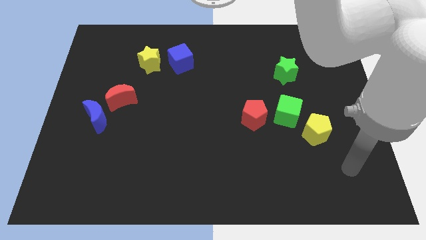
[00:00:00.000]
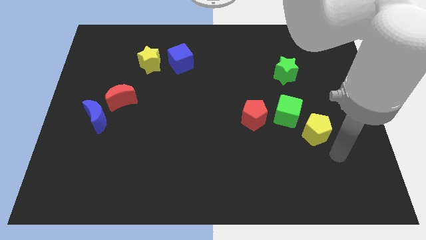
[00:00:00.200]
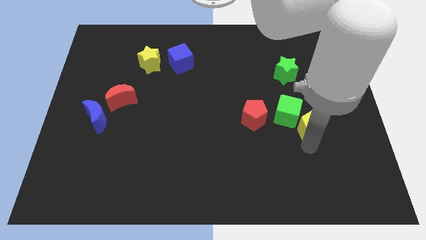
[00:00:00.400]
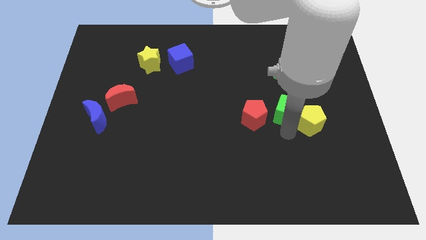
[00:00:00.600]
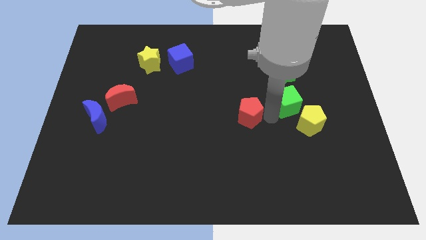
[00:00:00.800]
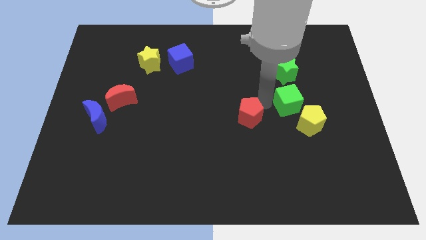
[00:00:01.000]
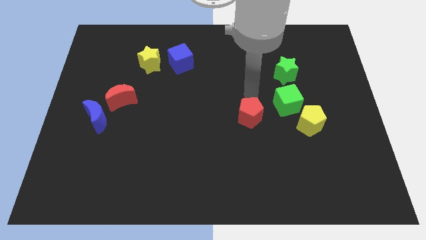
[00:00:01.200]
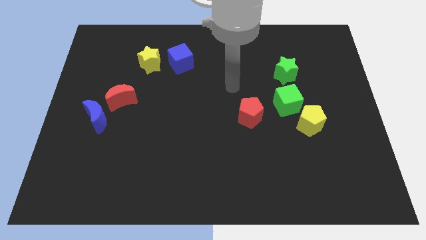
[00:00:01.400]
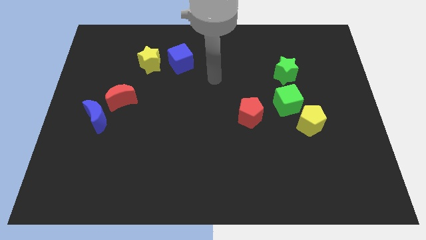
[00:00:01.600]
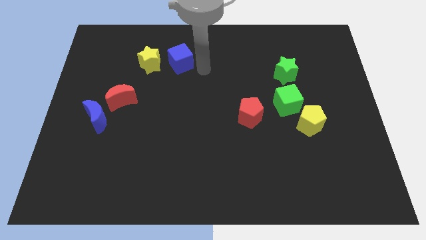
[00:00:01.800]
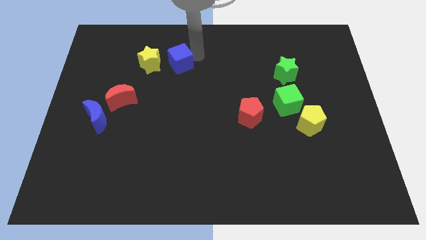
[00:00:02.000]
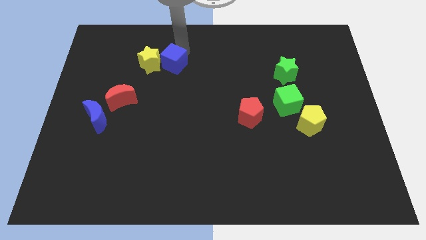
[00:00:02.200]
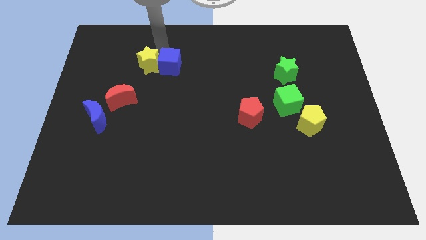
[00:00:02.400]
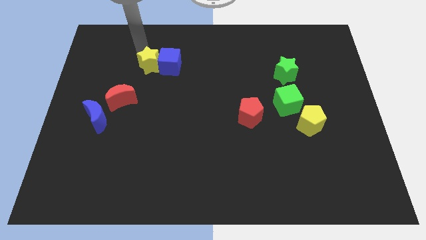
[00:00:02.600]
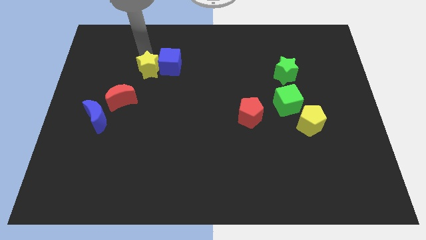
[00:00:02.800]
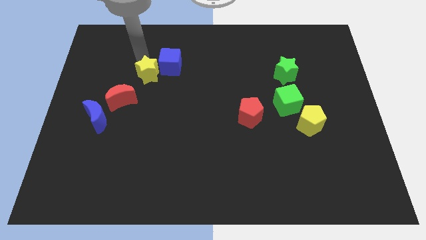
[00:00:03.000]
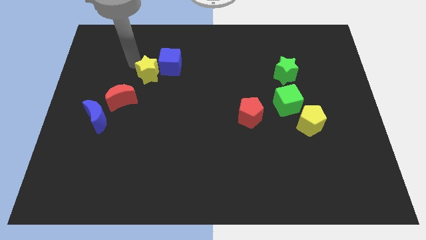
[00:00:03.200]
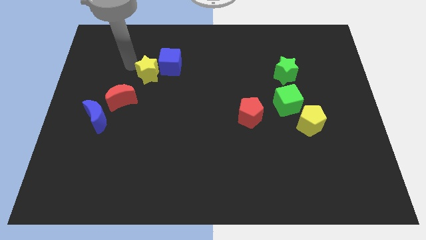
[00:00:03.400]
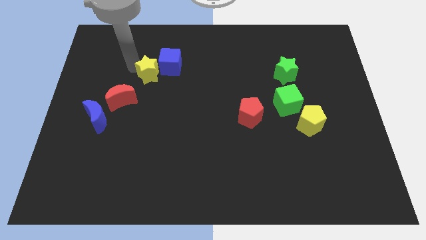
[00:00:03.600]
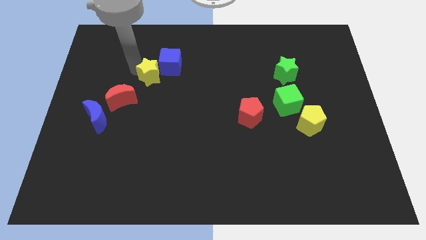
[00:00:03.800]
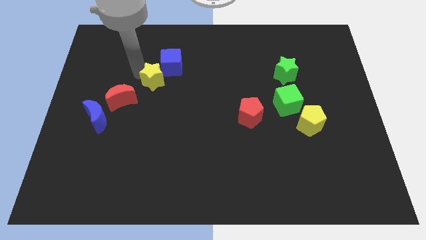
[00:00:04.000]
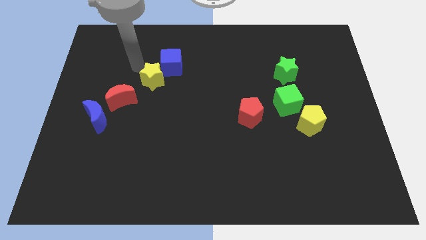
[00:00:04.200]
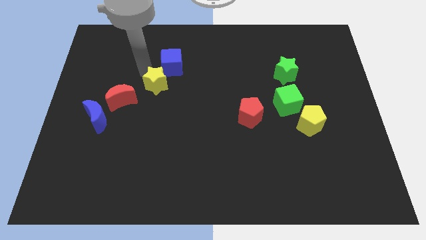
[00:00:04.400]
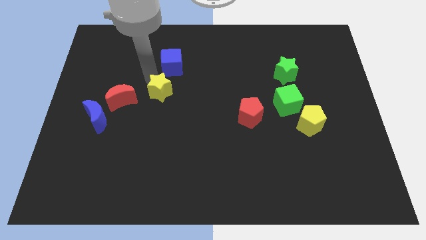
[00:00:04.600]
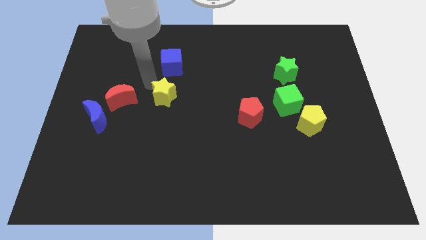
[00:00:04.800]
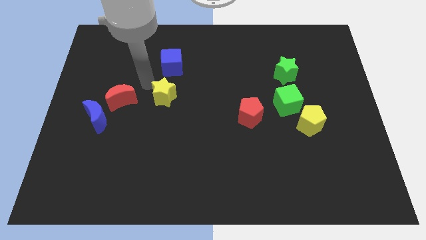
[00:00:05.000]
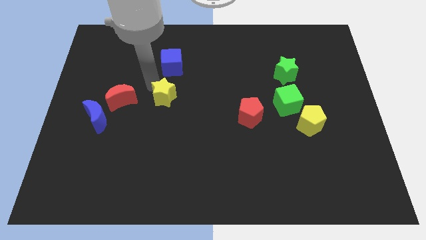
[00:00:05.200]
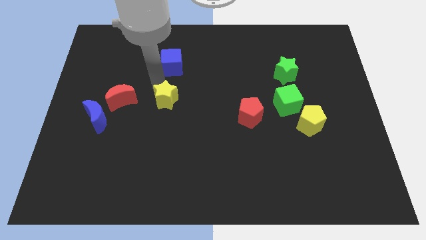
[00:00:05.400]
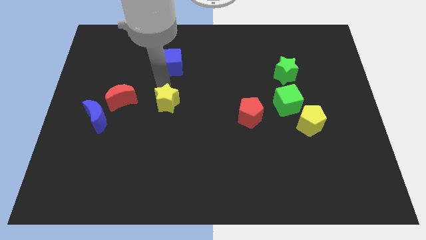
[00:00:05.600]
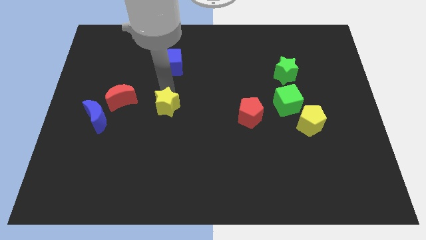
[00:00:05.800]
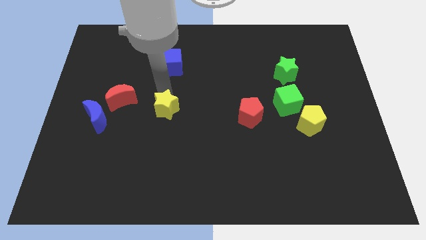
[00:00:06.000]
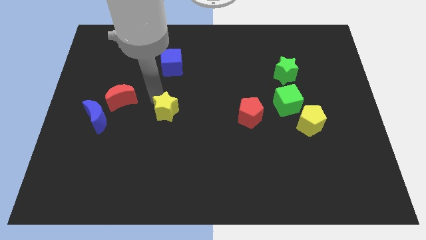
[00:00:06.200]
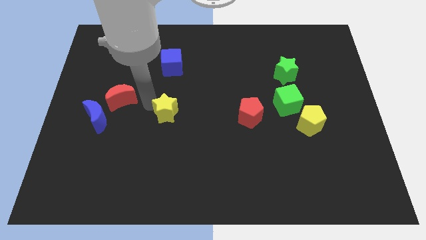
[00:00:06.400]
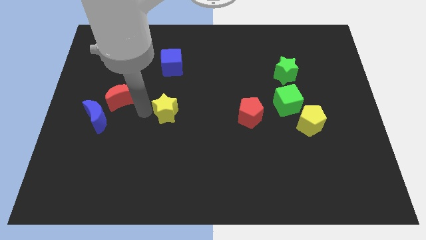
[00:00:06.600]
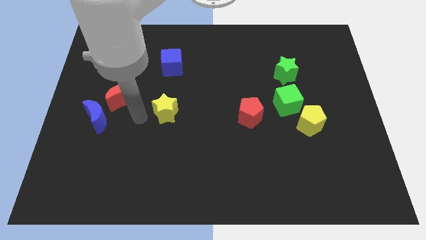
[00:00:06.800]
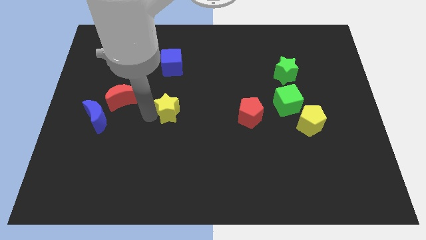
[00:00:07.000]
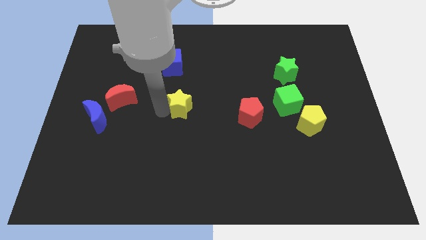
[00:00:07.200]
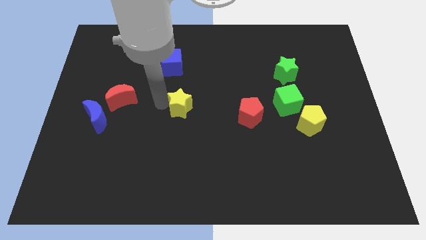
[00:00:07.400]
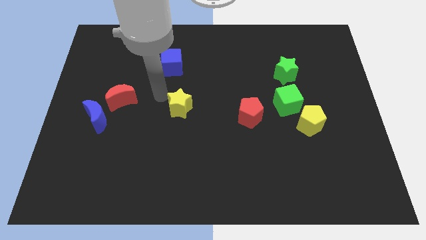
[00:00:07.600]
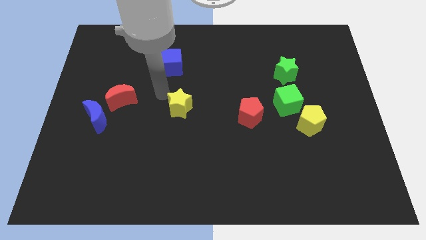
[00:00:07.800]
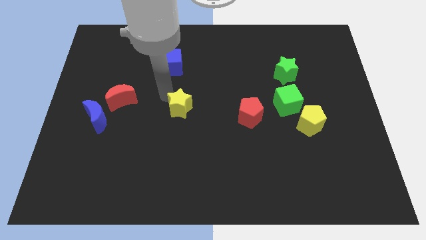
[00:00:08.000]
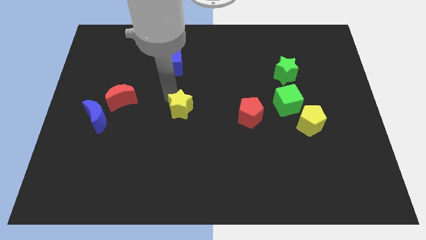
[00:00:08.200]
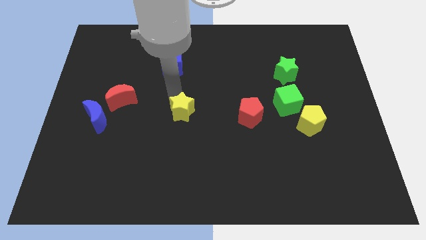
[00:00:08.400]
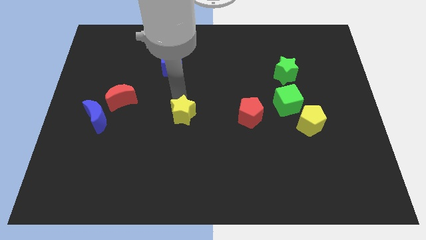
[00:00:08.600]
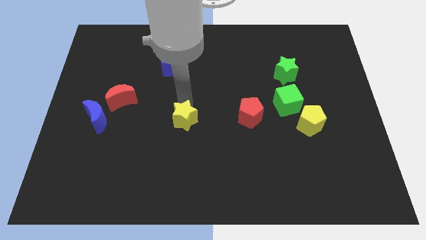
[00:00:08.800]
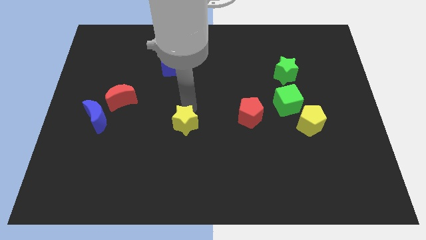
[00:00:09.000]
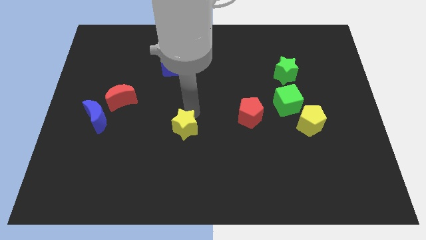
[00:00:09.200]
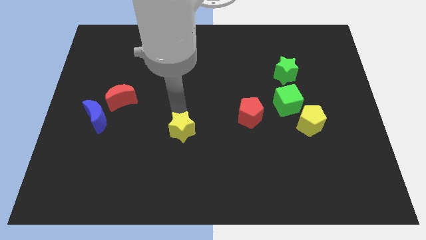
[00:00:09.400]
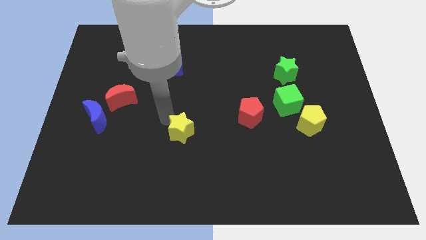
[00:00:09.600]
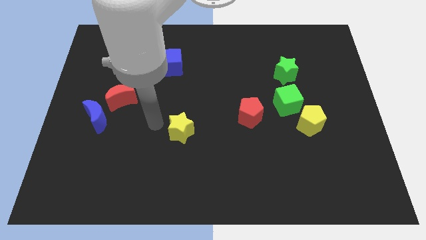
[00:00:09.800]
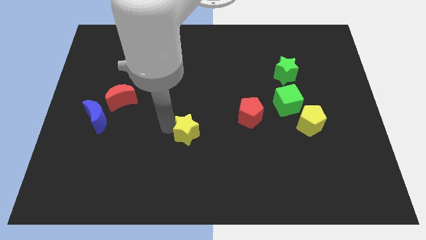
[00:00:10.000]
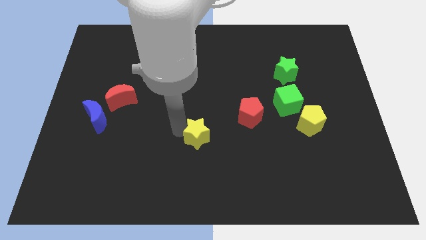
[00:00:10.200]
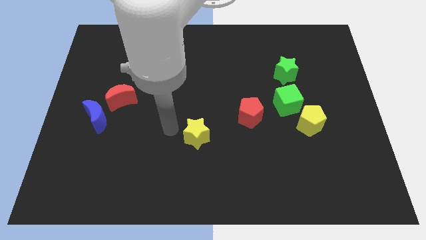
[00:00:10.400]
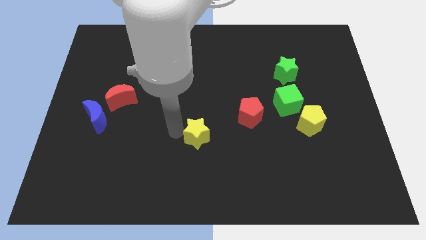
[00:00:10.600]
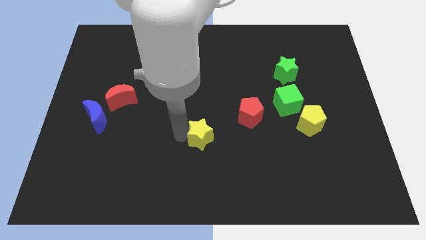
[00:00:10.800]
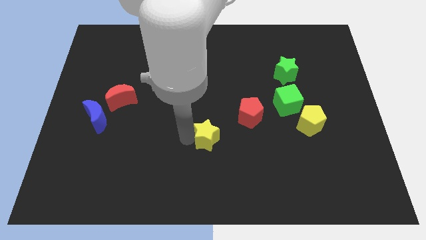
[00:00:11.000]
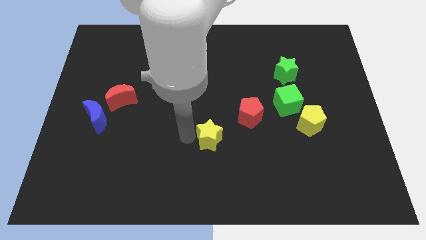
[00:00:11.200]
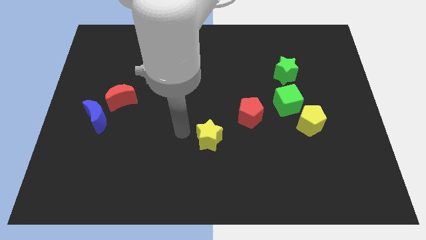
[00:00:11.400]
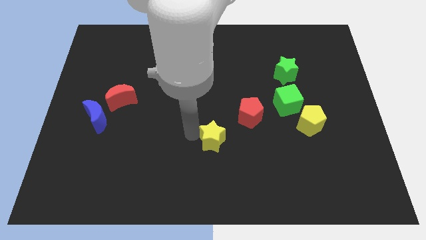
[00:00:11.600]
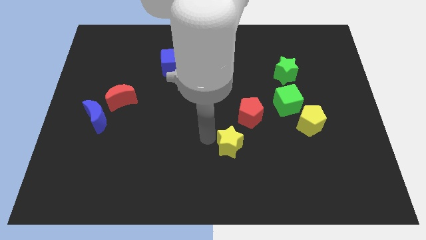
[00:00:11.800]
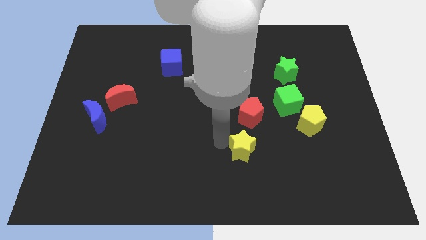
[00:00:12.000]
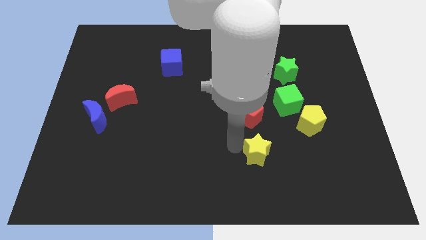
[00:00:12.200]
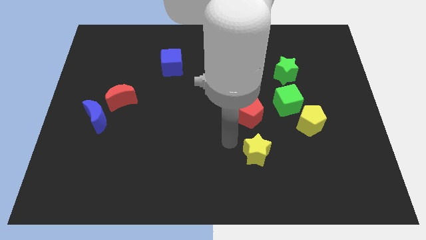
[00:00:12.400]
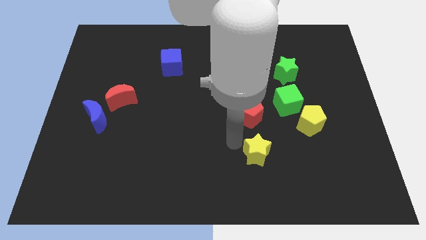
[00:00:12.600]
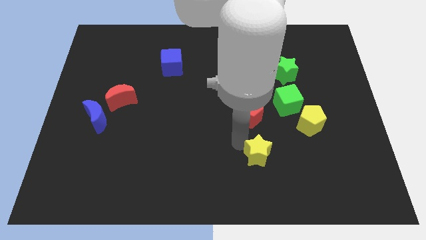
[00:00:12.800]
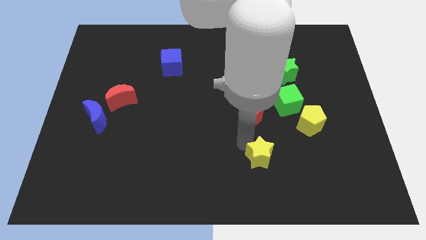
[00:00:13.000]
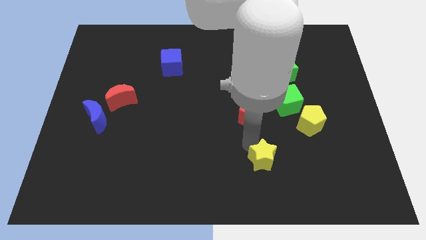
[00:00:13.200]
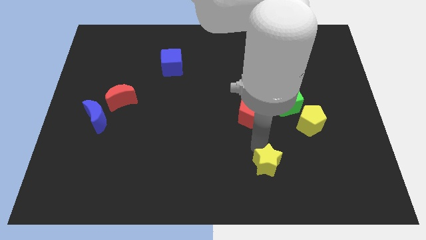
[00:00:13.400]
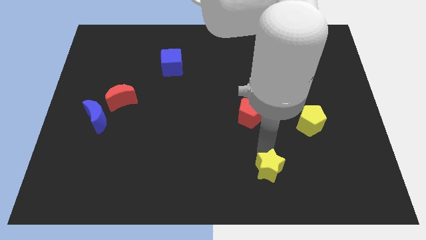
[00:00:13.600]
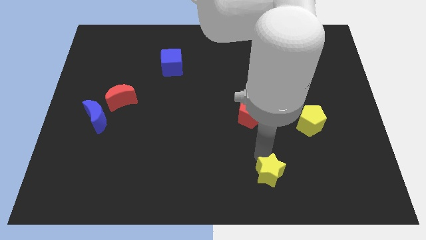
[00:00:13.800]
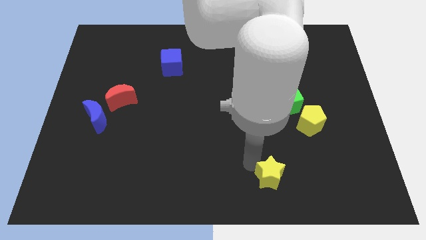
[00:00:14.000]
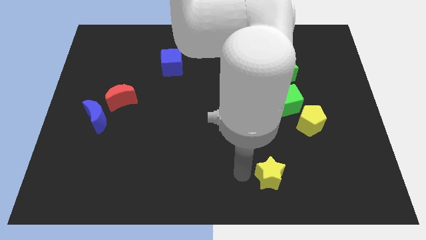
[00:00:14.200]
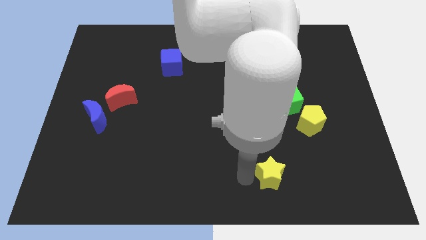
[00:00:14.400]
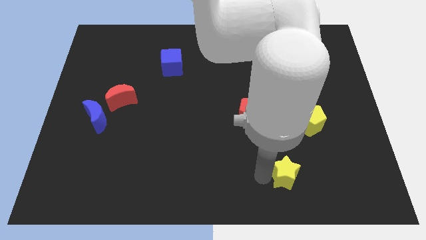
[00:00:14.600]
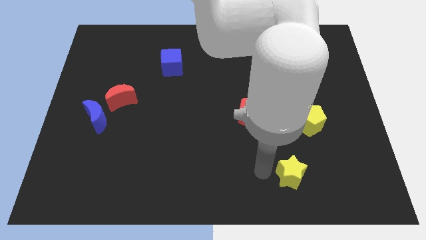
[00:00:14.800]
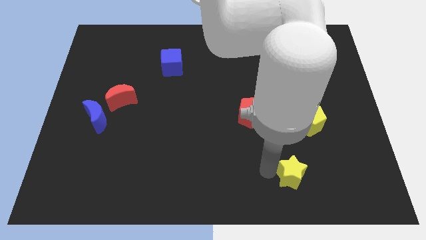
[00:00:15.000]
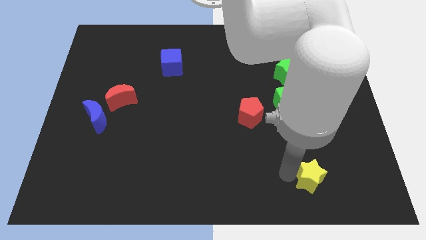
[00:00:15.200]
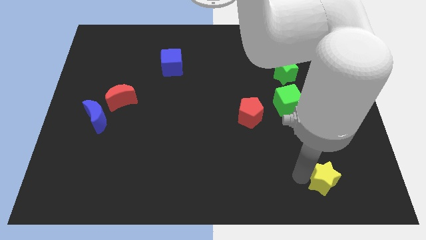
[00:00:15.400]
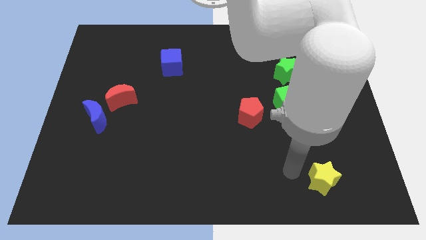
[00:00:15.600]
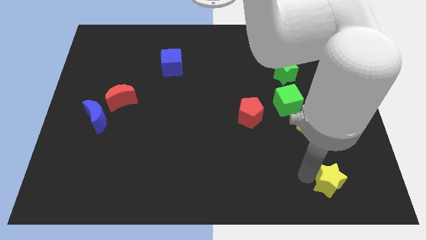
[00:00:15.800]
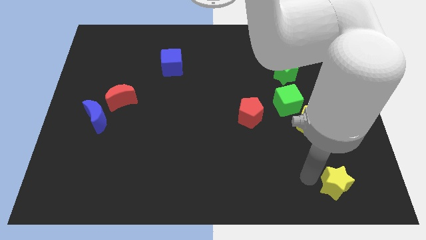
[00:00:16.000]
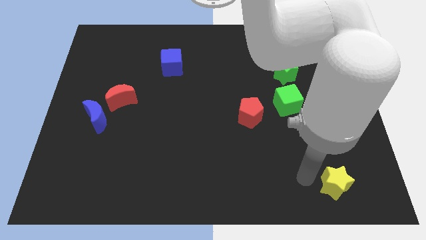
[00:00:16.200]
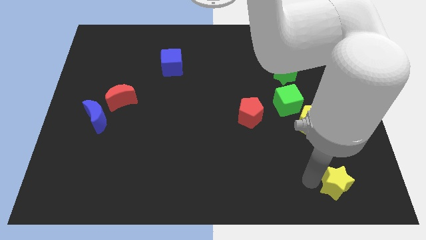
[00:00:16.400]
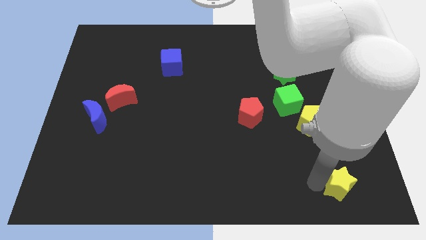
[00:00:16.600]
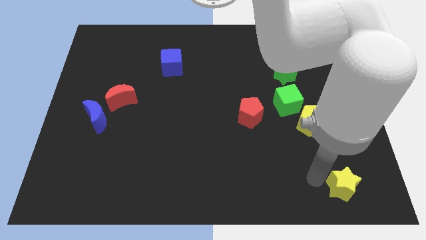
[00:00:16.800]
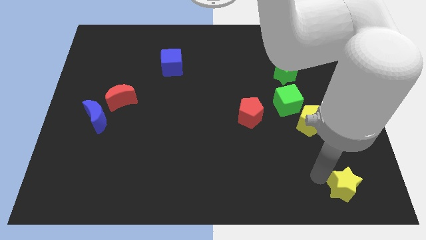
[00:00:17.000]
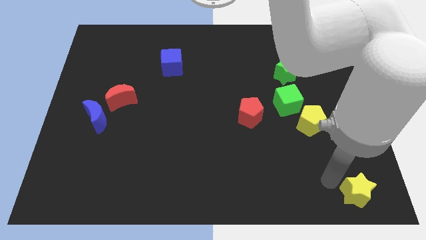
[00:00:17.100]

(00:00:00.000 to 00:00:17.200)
move the yellow star to the lower right corner
